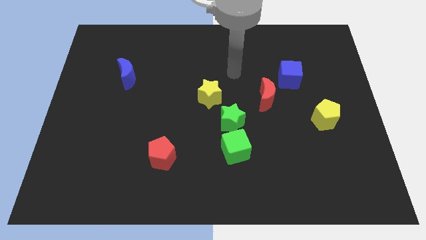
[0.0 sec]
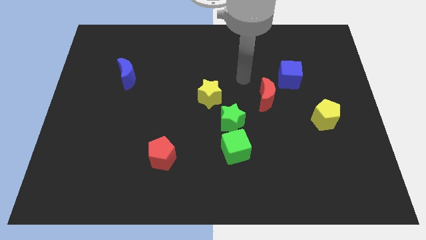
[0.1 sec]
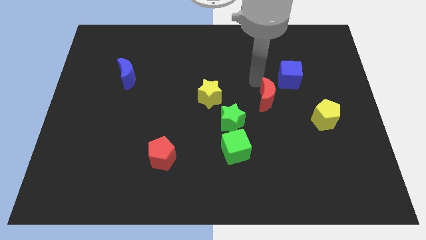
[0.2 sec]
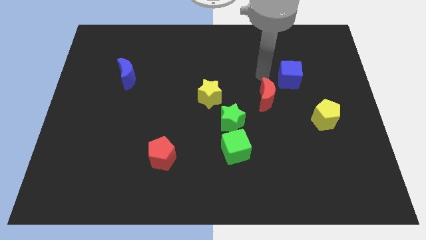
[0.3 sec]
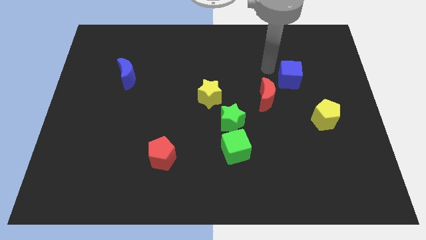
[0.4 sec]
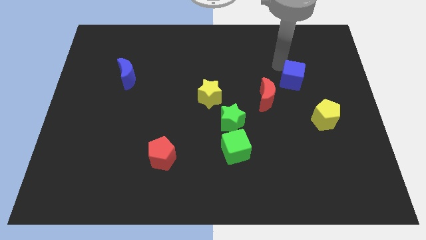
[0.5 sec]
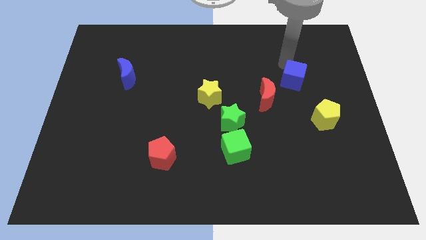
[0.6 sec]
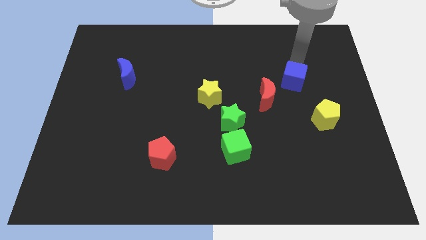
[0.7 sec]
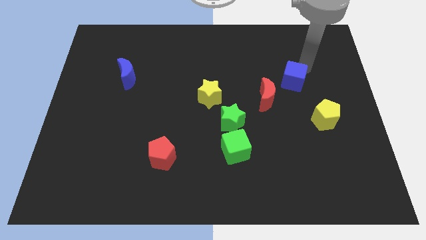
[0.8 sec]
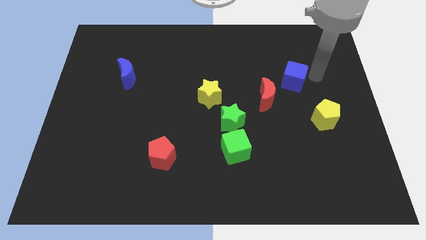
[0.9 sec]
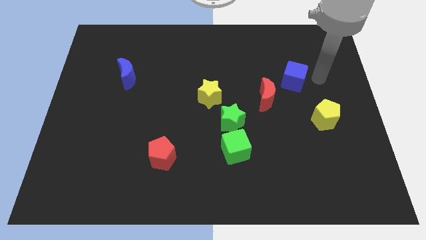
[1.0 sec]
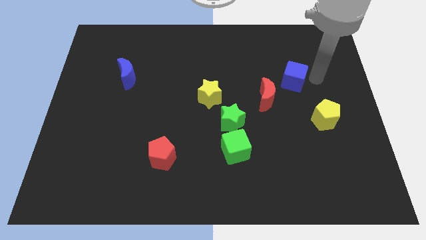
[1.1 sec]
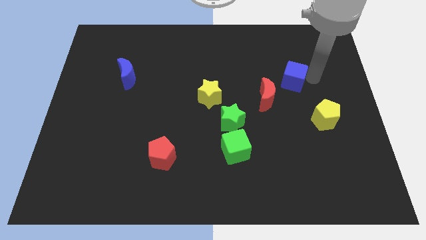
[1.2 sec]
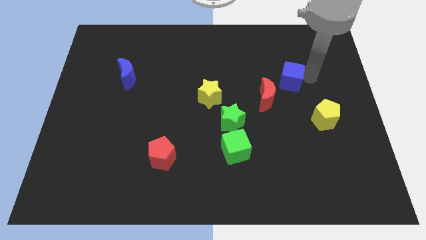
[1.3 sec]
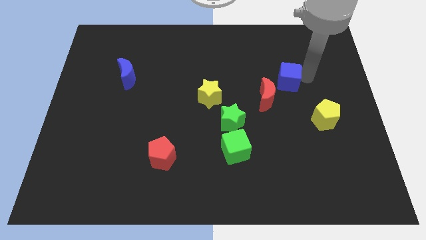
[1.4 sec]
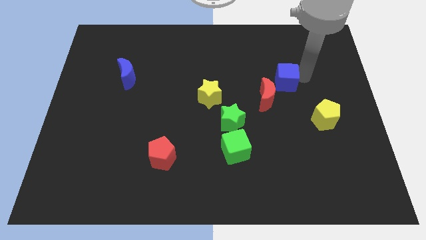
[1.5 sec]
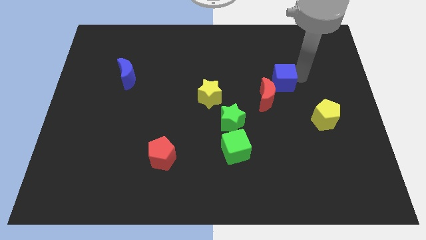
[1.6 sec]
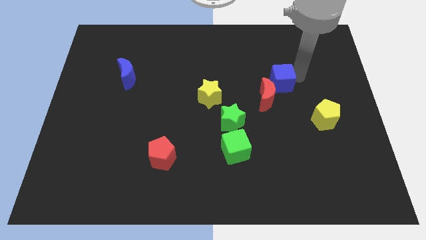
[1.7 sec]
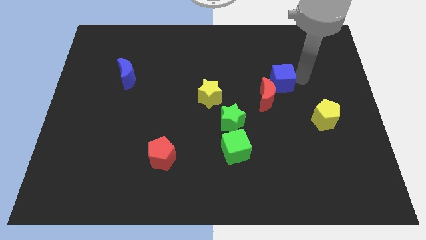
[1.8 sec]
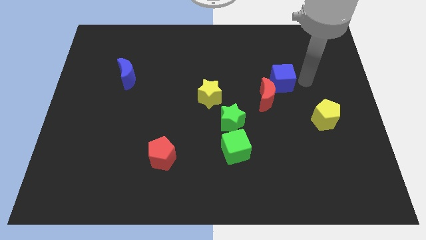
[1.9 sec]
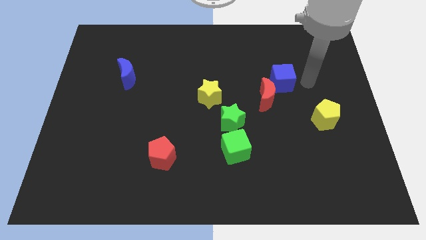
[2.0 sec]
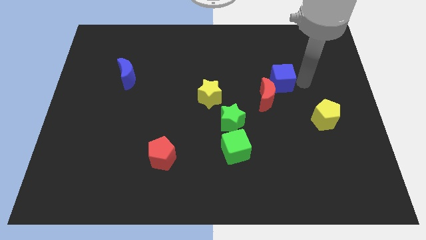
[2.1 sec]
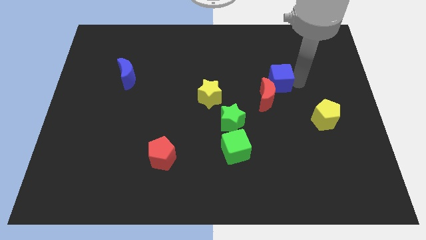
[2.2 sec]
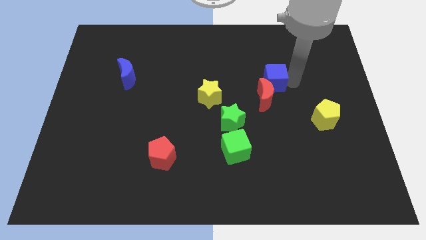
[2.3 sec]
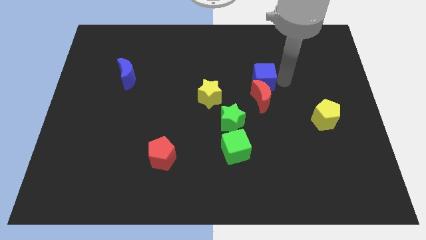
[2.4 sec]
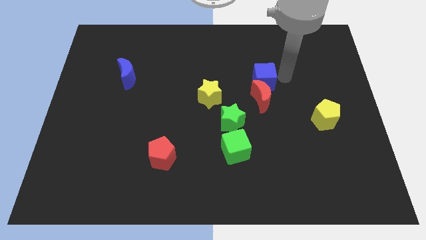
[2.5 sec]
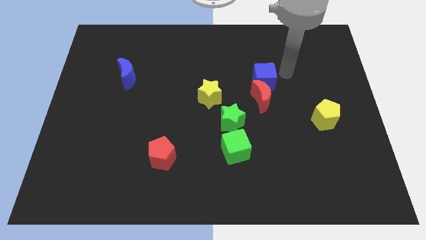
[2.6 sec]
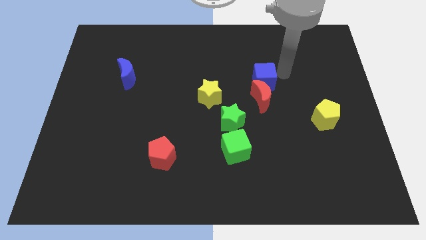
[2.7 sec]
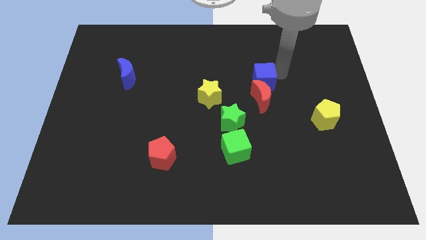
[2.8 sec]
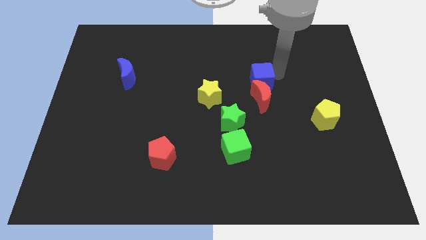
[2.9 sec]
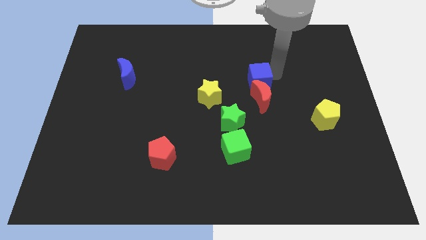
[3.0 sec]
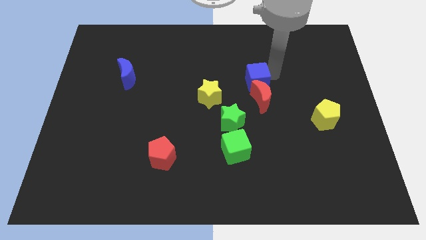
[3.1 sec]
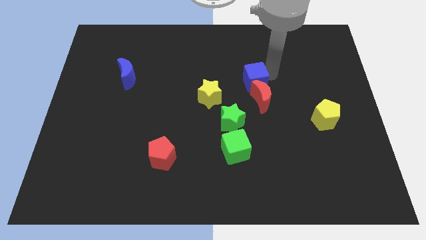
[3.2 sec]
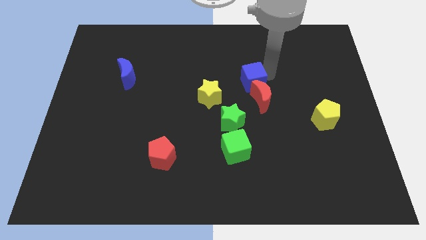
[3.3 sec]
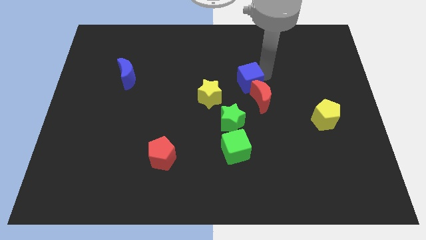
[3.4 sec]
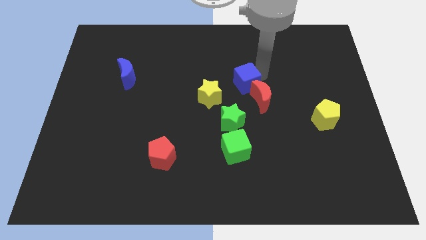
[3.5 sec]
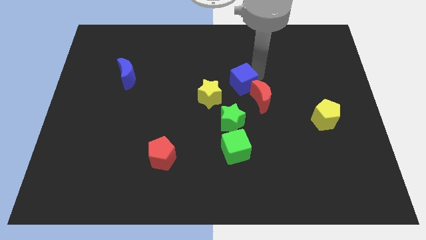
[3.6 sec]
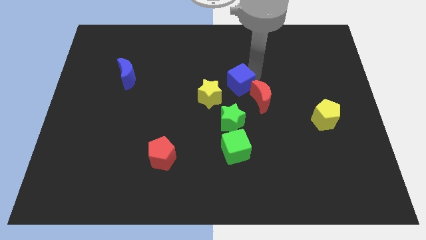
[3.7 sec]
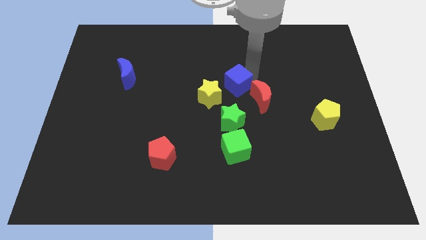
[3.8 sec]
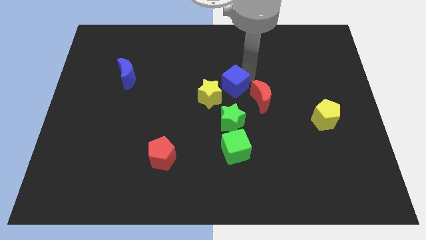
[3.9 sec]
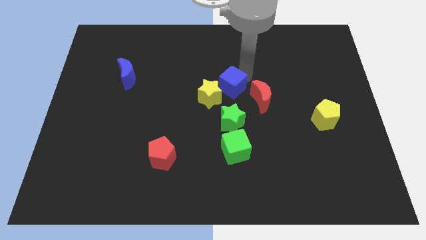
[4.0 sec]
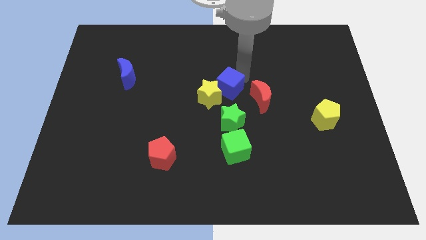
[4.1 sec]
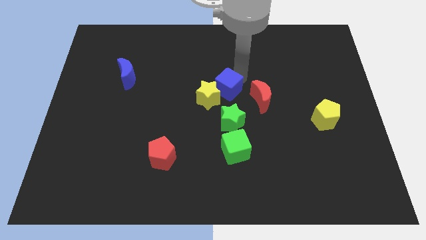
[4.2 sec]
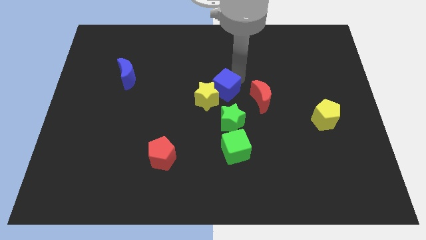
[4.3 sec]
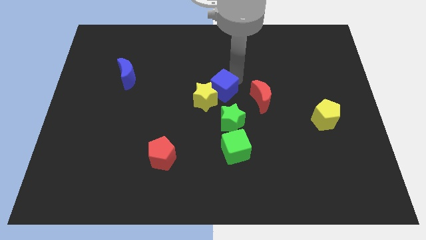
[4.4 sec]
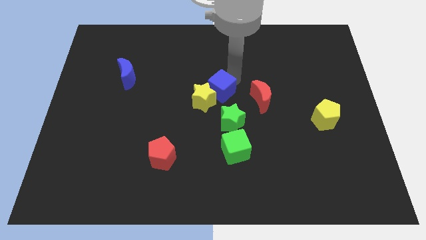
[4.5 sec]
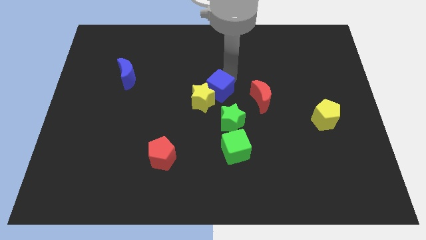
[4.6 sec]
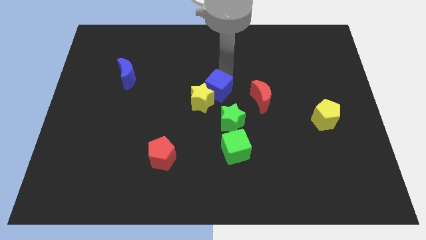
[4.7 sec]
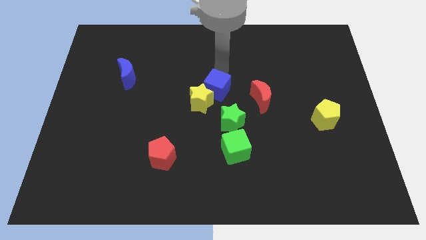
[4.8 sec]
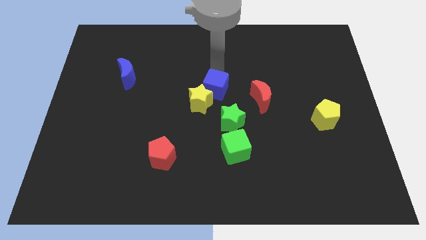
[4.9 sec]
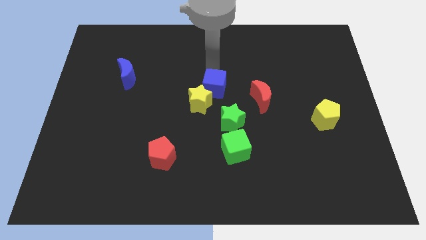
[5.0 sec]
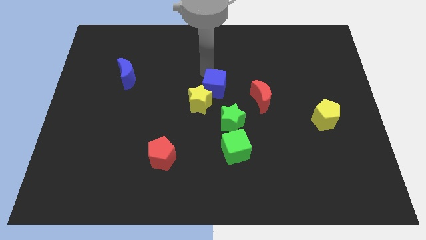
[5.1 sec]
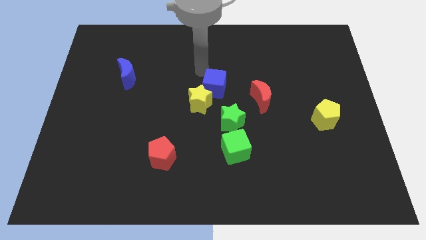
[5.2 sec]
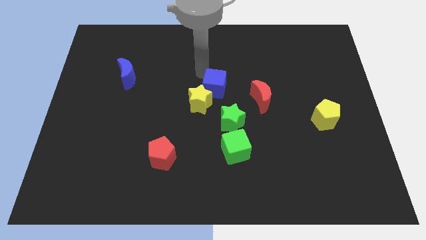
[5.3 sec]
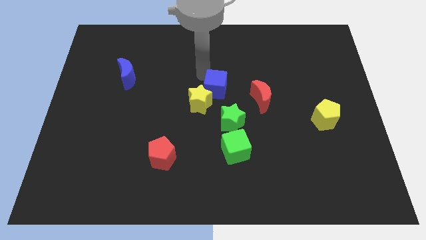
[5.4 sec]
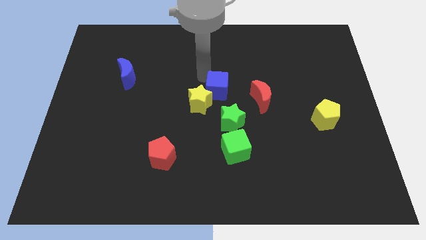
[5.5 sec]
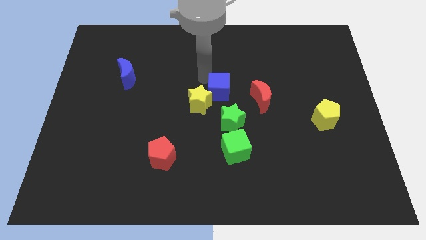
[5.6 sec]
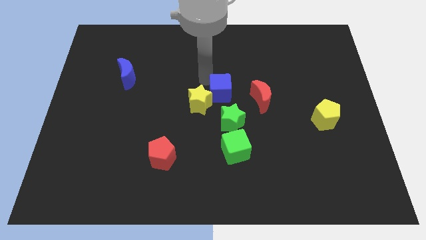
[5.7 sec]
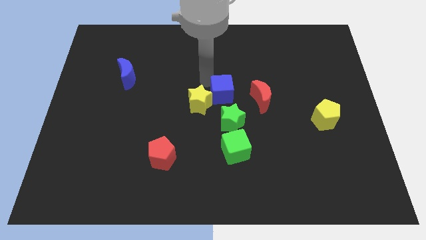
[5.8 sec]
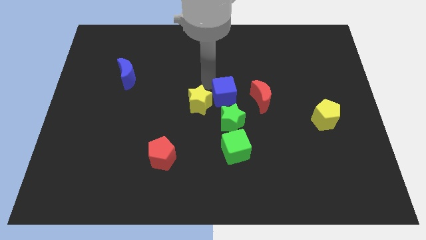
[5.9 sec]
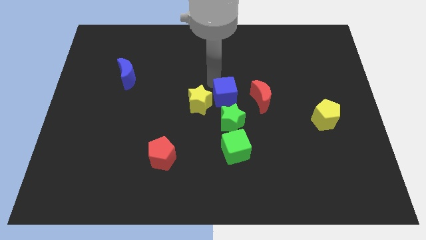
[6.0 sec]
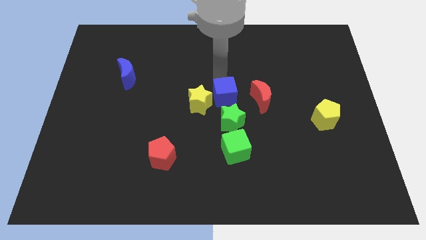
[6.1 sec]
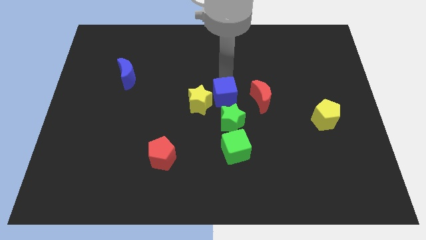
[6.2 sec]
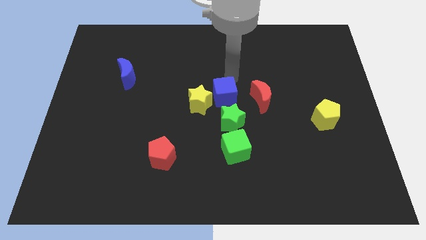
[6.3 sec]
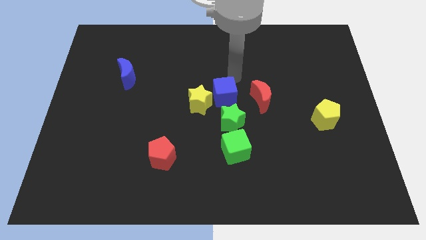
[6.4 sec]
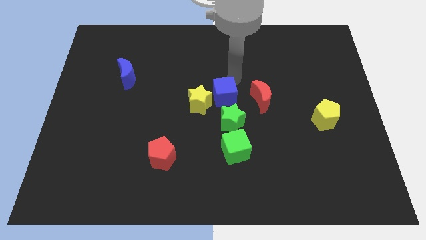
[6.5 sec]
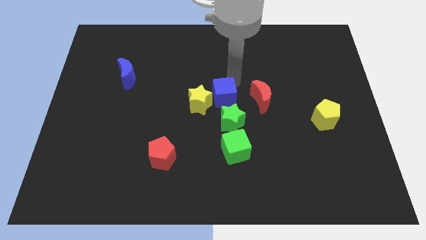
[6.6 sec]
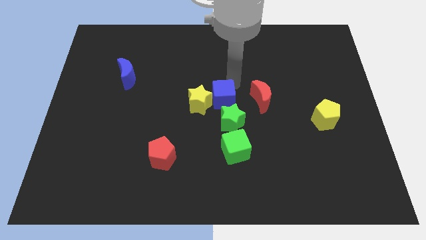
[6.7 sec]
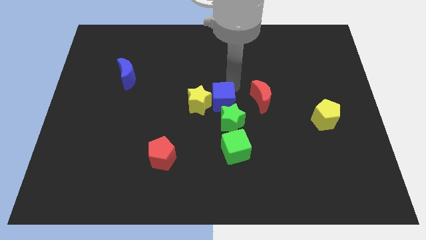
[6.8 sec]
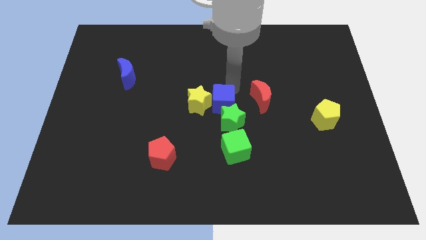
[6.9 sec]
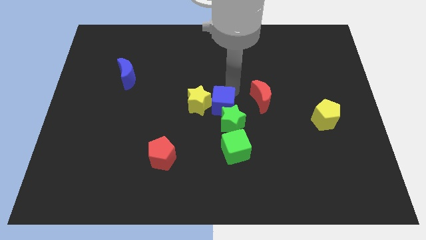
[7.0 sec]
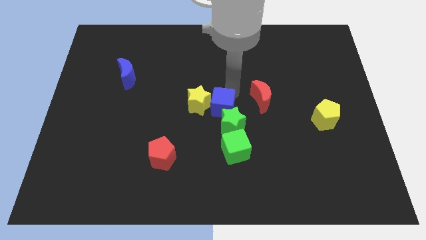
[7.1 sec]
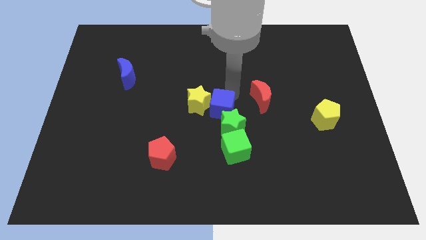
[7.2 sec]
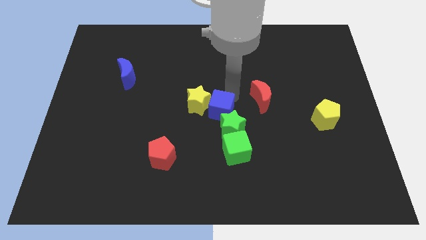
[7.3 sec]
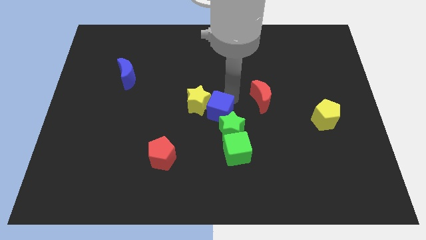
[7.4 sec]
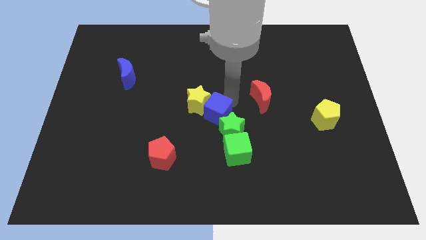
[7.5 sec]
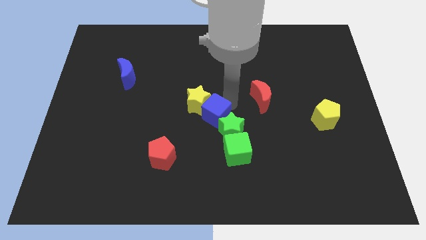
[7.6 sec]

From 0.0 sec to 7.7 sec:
push the blue cube downwards and left

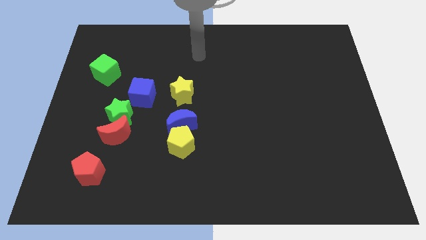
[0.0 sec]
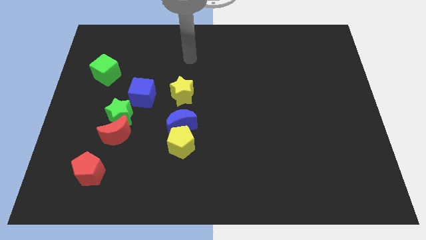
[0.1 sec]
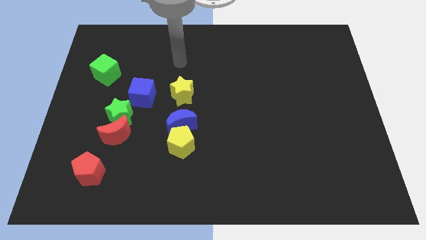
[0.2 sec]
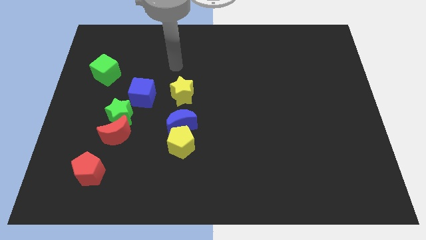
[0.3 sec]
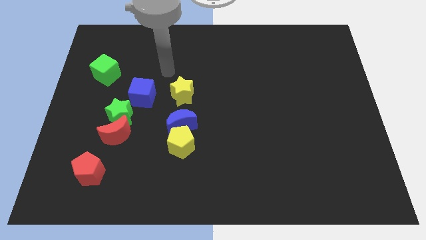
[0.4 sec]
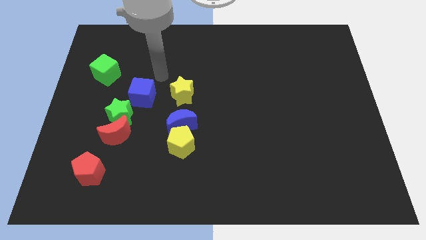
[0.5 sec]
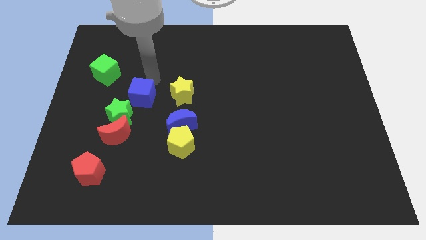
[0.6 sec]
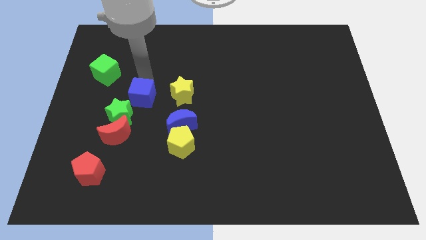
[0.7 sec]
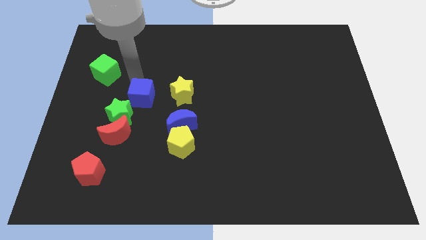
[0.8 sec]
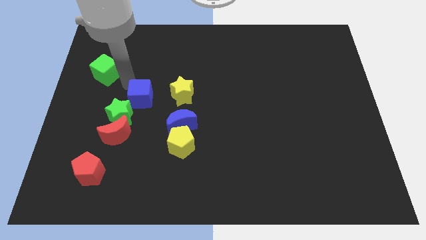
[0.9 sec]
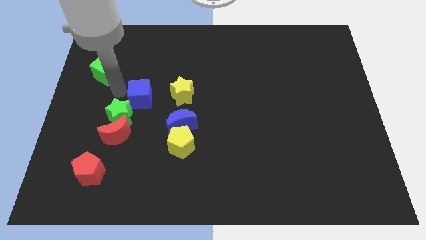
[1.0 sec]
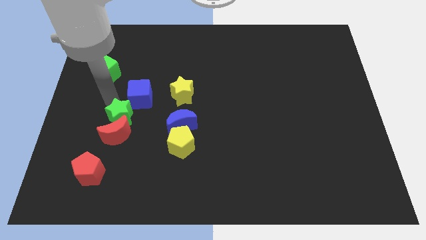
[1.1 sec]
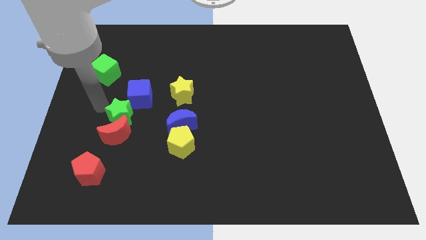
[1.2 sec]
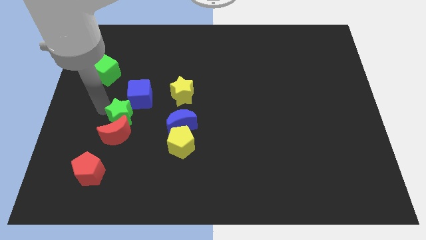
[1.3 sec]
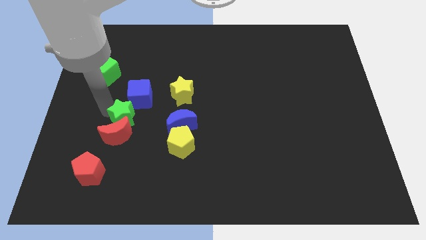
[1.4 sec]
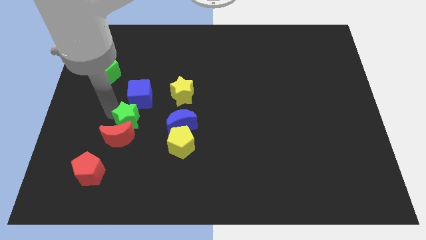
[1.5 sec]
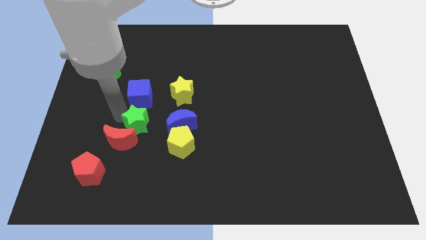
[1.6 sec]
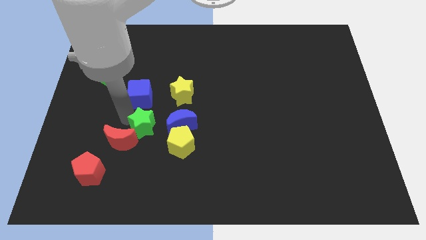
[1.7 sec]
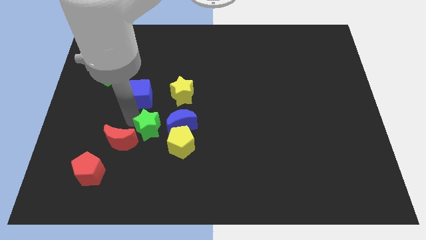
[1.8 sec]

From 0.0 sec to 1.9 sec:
push the green star a little bit down and then to the right
